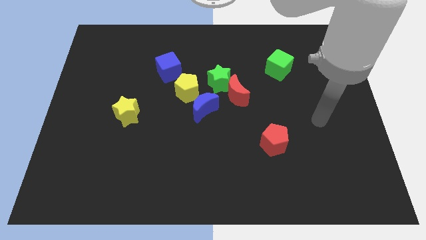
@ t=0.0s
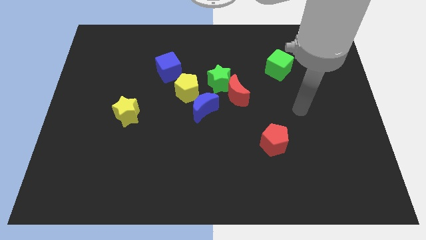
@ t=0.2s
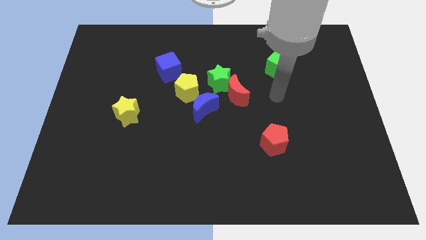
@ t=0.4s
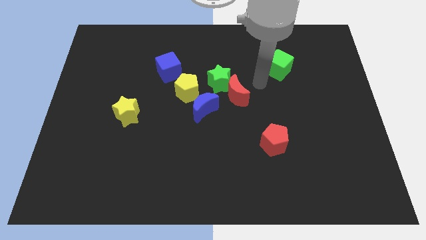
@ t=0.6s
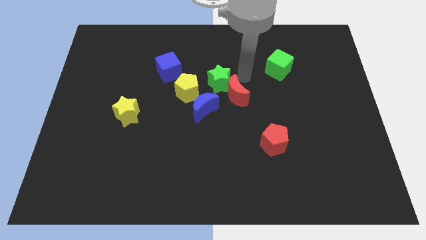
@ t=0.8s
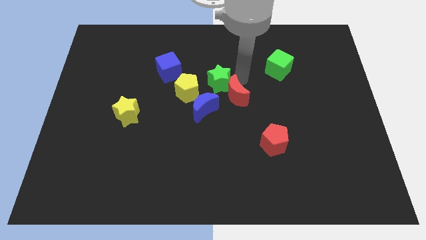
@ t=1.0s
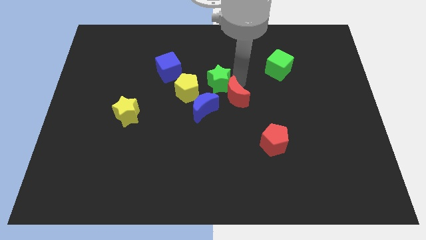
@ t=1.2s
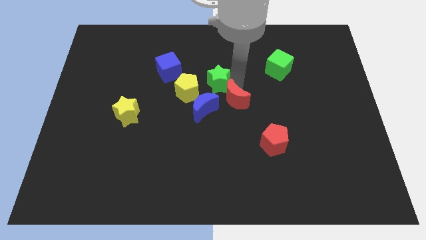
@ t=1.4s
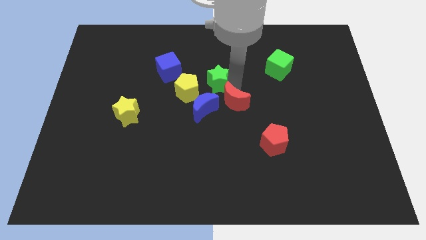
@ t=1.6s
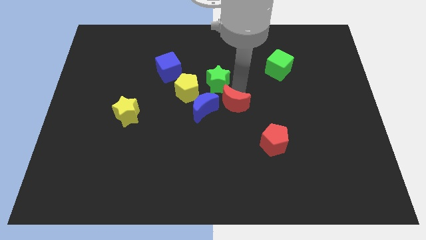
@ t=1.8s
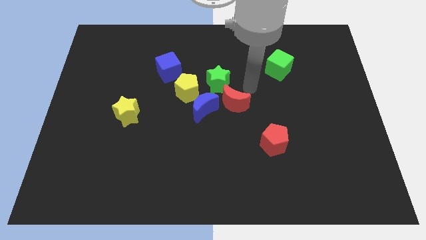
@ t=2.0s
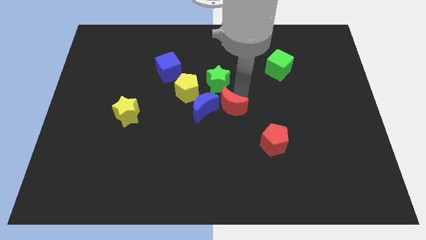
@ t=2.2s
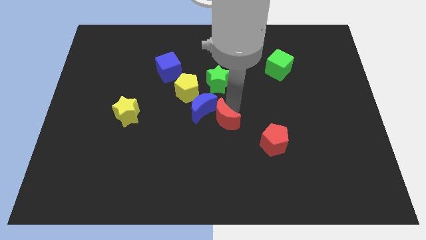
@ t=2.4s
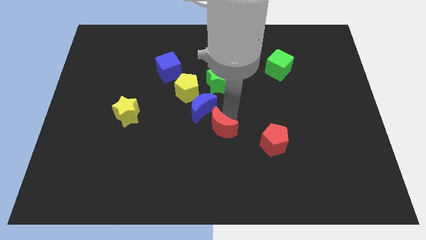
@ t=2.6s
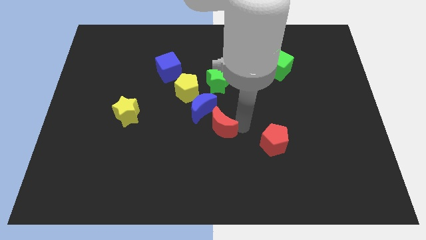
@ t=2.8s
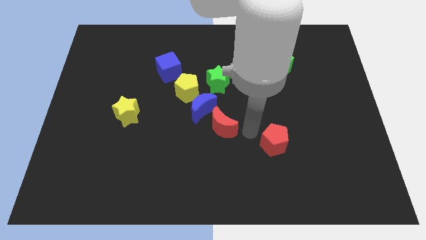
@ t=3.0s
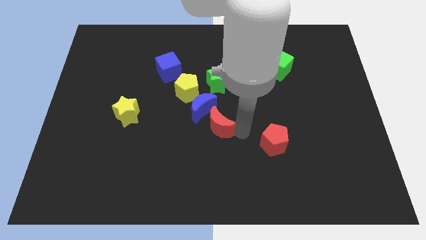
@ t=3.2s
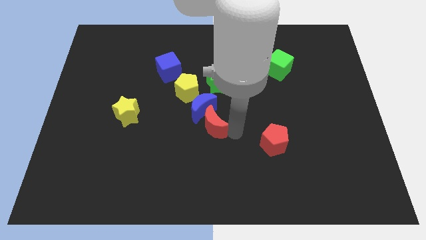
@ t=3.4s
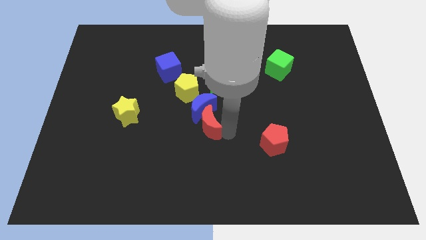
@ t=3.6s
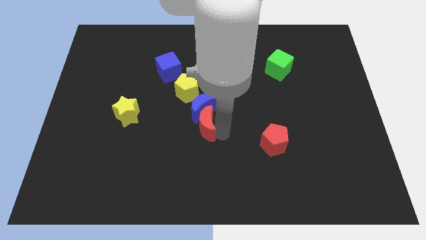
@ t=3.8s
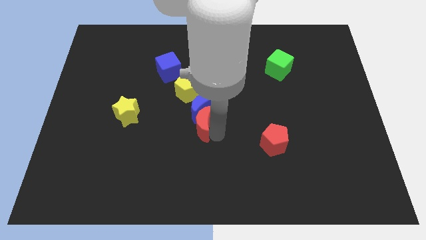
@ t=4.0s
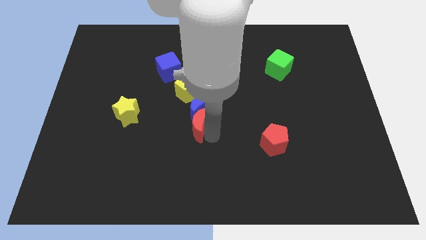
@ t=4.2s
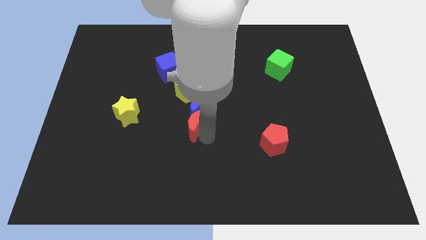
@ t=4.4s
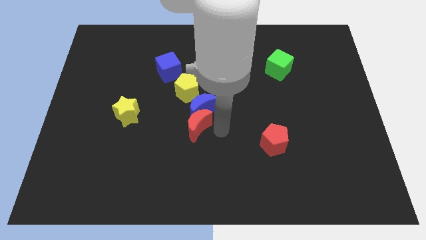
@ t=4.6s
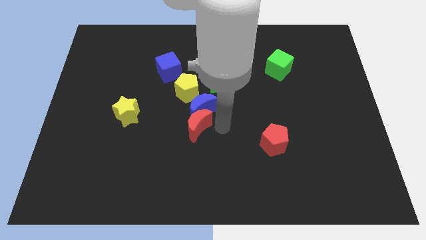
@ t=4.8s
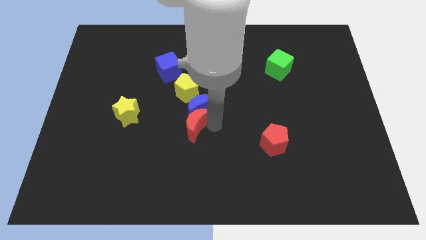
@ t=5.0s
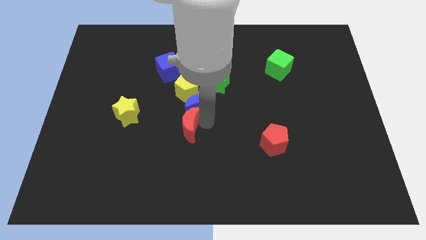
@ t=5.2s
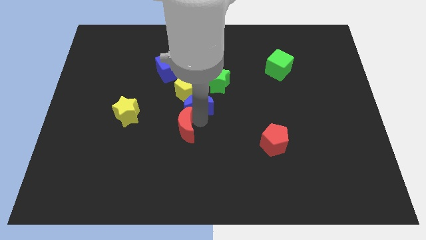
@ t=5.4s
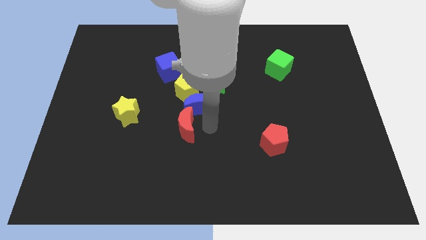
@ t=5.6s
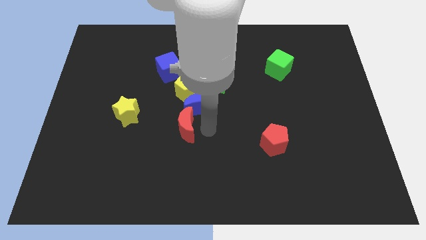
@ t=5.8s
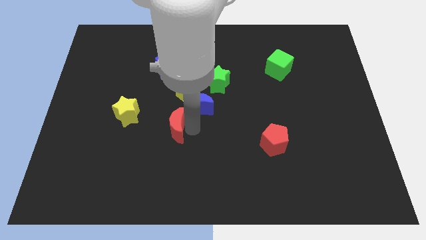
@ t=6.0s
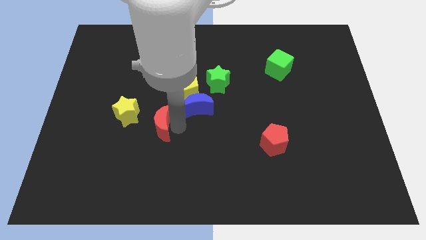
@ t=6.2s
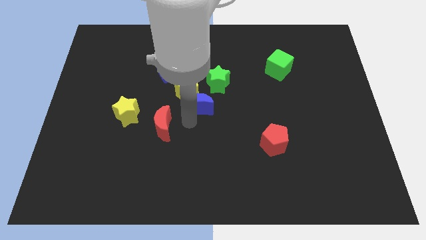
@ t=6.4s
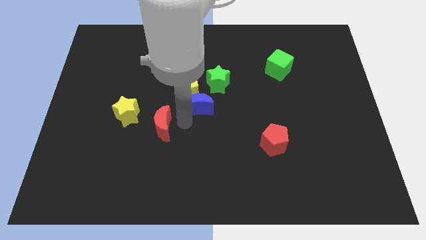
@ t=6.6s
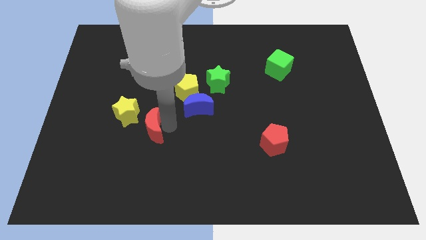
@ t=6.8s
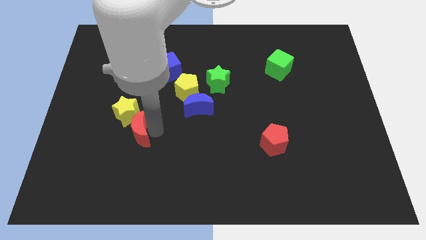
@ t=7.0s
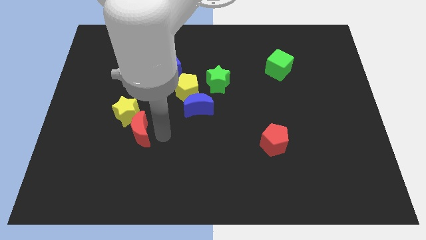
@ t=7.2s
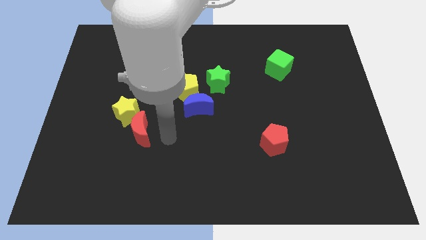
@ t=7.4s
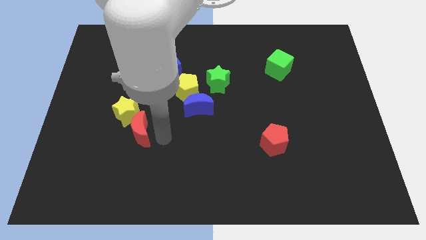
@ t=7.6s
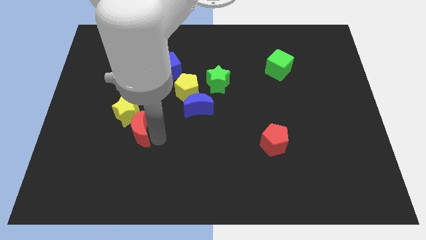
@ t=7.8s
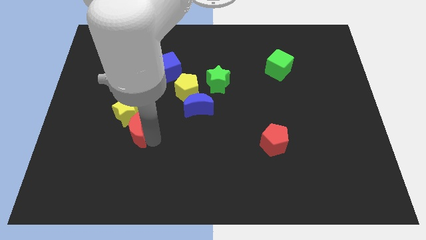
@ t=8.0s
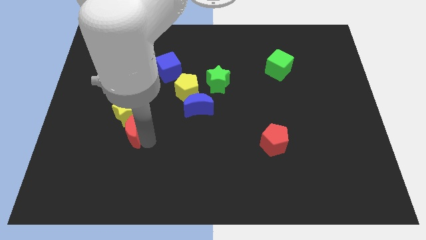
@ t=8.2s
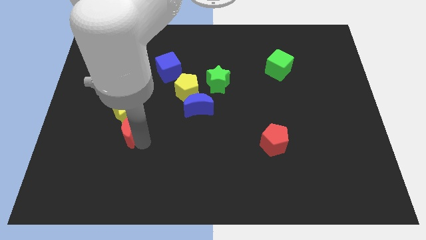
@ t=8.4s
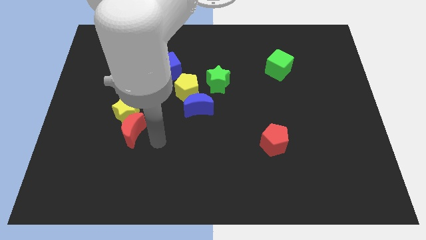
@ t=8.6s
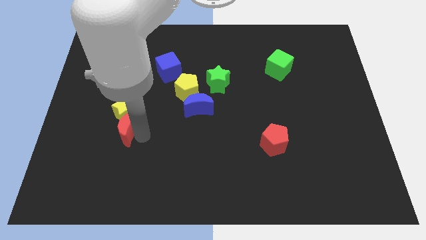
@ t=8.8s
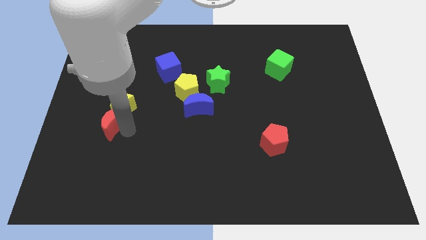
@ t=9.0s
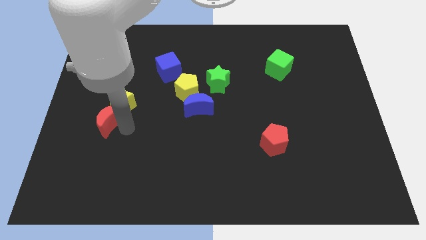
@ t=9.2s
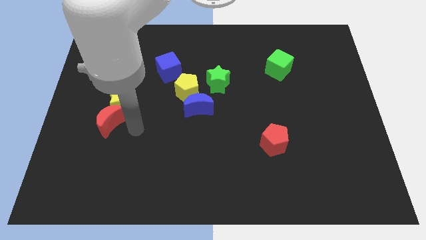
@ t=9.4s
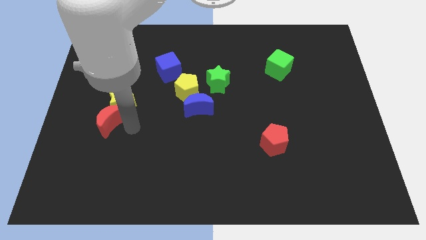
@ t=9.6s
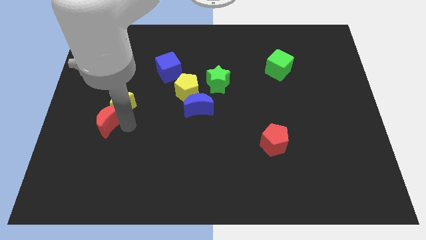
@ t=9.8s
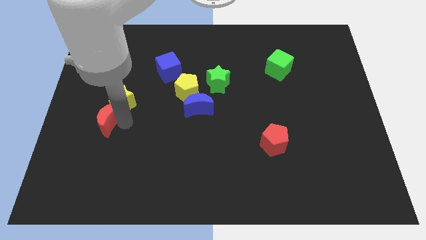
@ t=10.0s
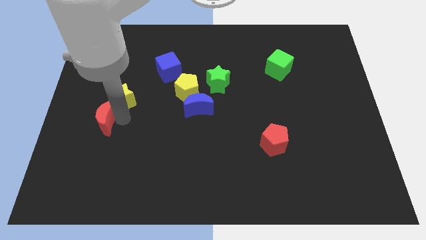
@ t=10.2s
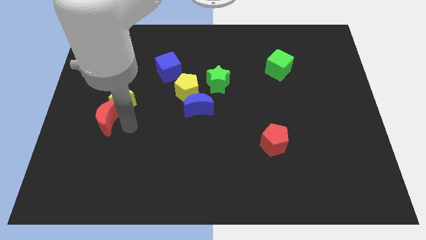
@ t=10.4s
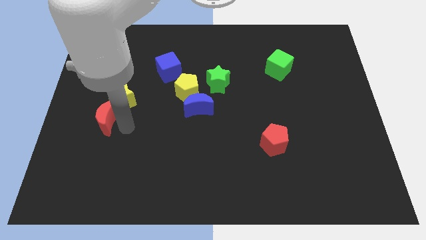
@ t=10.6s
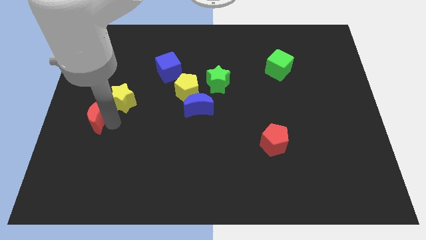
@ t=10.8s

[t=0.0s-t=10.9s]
put the red moon to the left side
